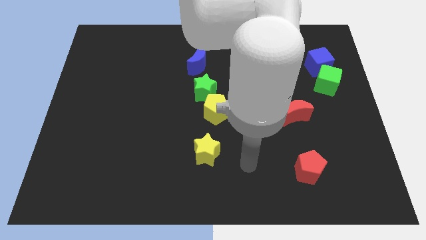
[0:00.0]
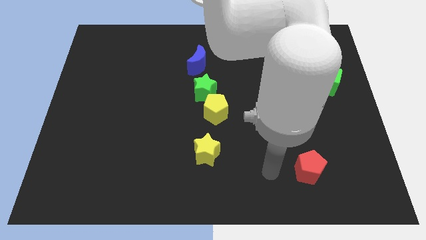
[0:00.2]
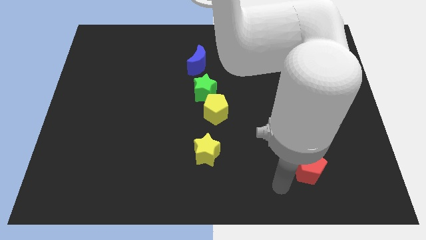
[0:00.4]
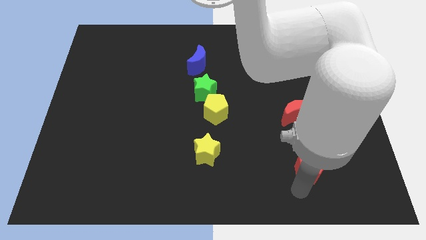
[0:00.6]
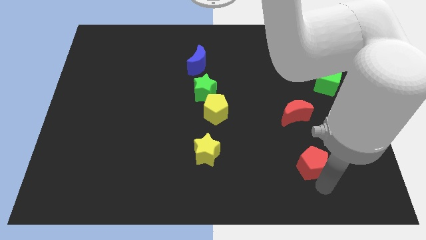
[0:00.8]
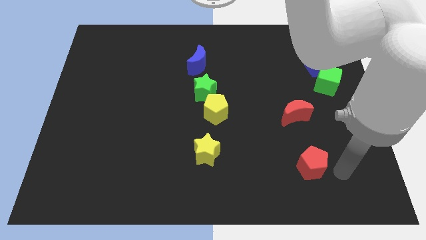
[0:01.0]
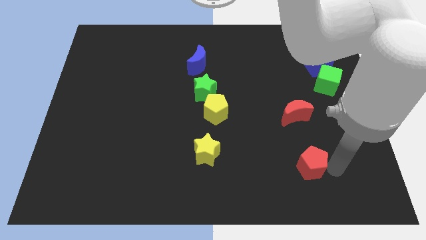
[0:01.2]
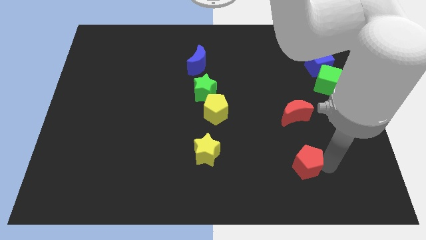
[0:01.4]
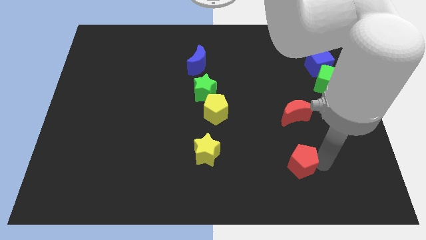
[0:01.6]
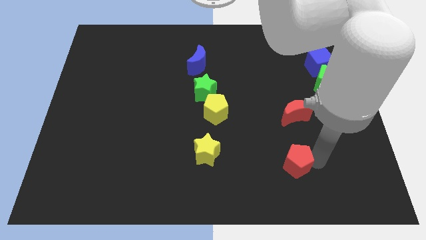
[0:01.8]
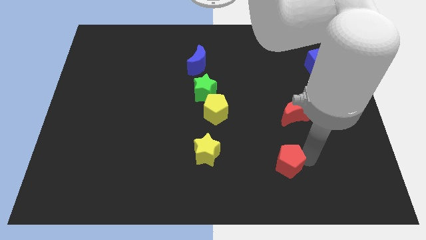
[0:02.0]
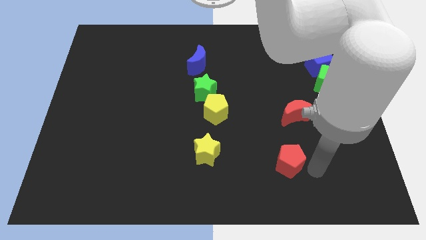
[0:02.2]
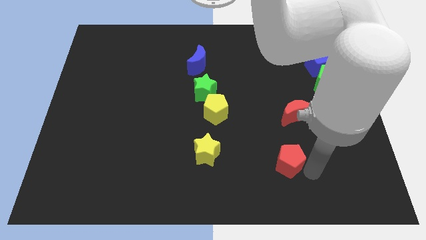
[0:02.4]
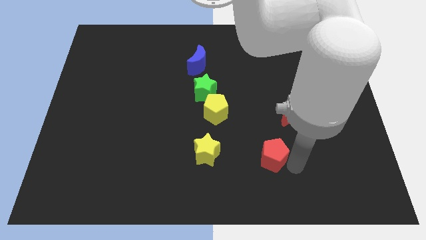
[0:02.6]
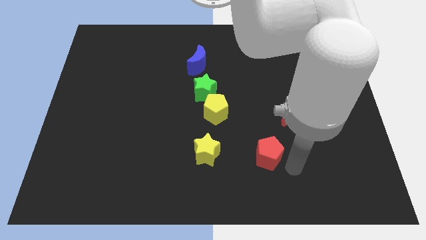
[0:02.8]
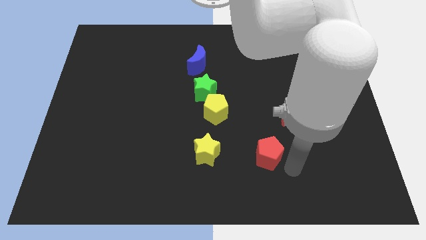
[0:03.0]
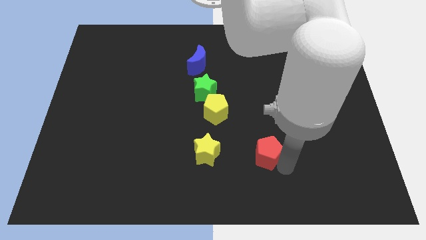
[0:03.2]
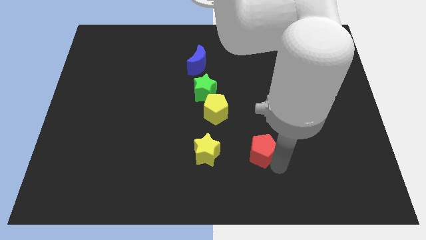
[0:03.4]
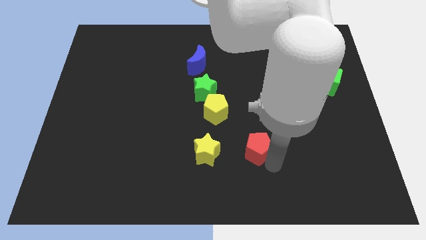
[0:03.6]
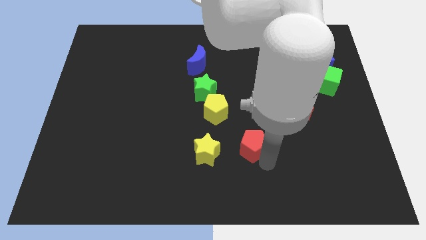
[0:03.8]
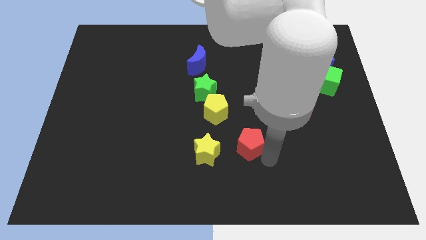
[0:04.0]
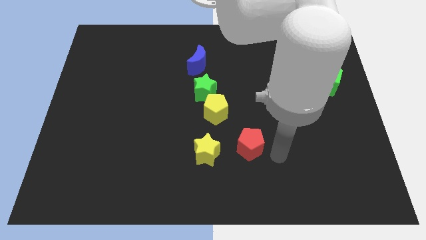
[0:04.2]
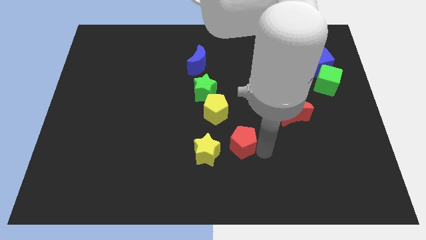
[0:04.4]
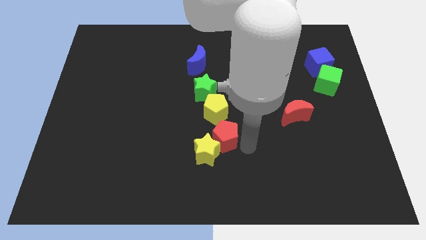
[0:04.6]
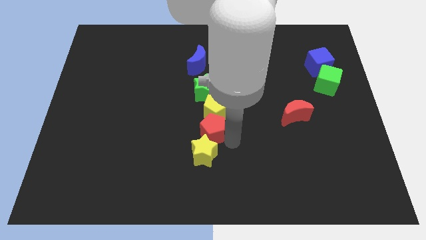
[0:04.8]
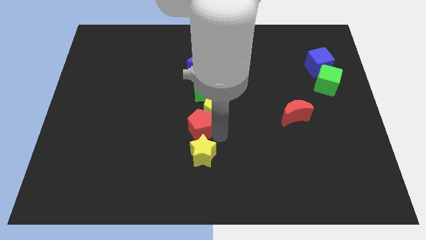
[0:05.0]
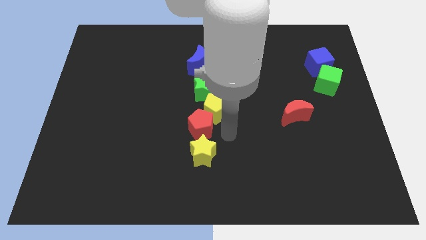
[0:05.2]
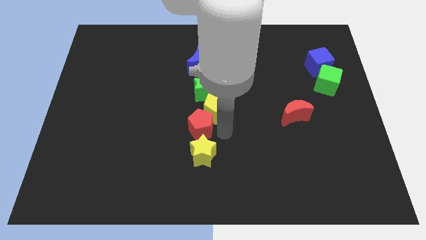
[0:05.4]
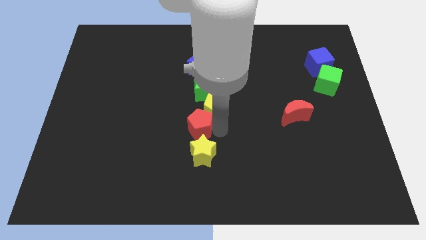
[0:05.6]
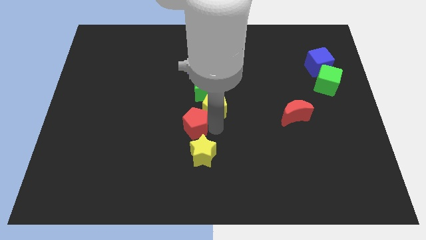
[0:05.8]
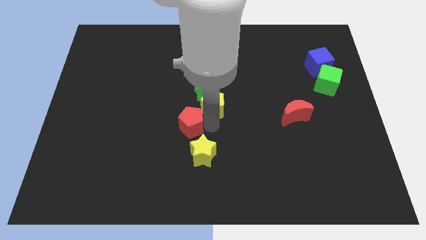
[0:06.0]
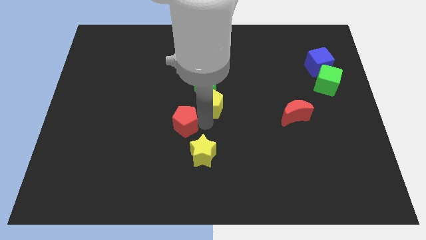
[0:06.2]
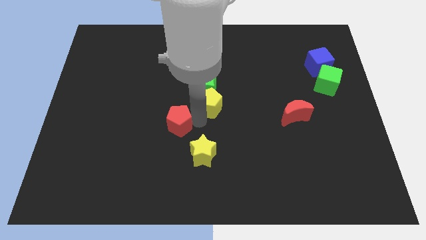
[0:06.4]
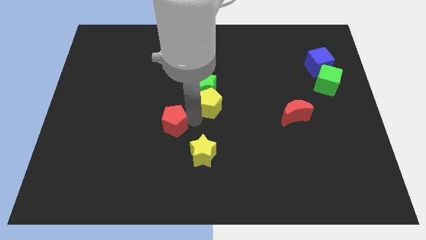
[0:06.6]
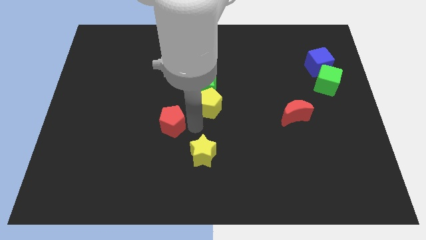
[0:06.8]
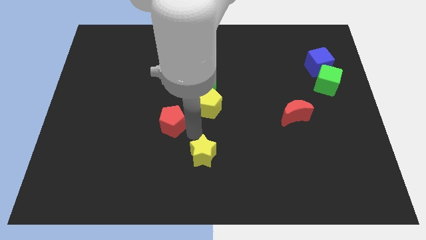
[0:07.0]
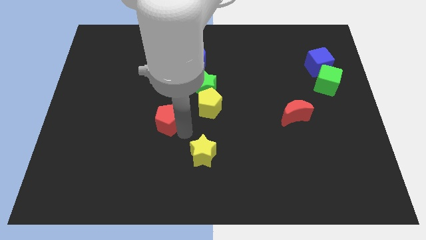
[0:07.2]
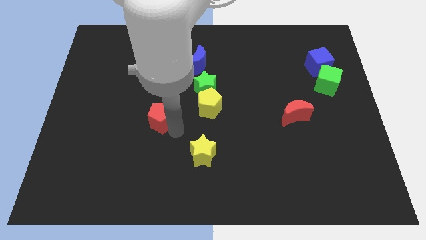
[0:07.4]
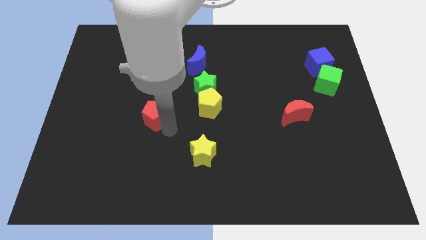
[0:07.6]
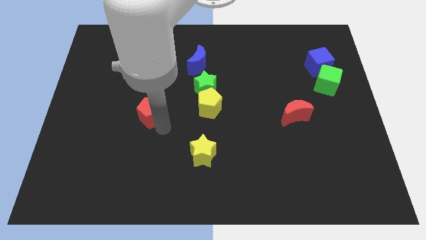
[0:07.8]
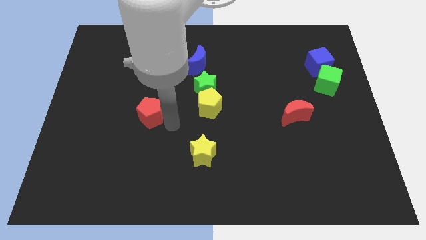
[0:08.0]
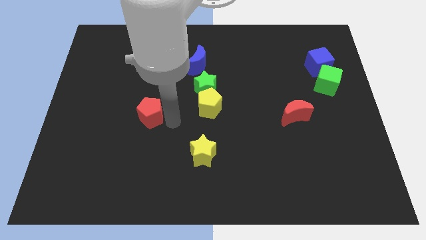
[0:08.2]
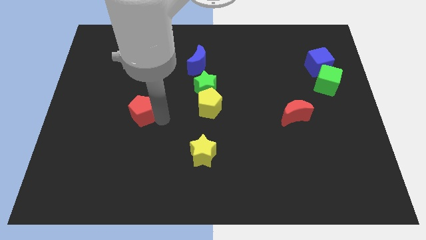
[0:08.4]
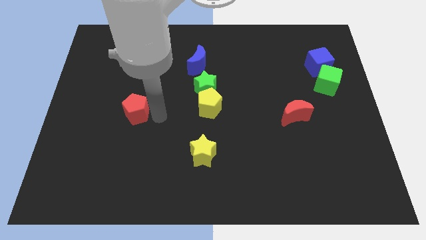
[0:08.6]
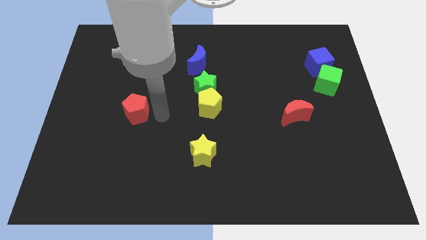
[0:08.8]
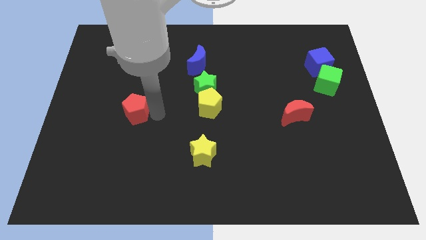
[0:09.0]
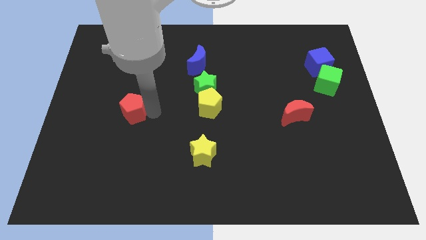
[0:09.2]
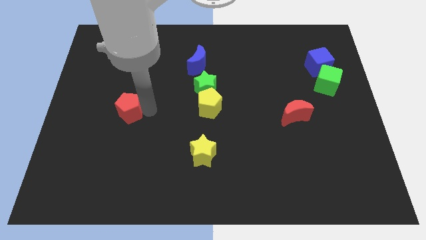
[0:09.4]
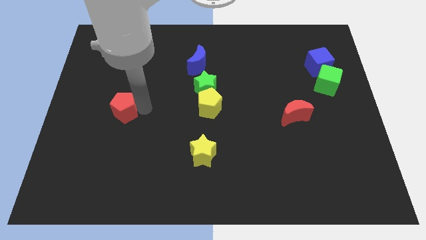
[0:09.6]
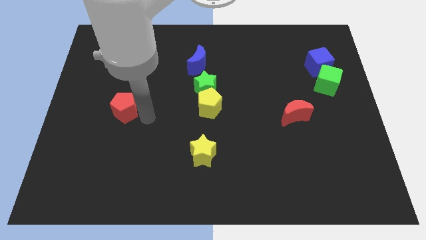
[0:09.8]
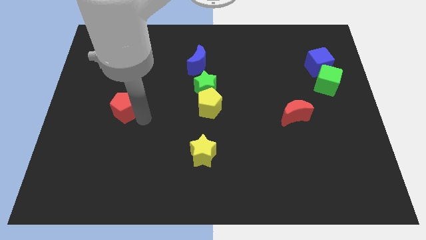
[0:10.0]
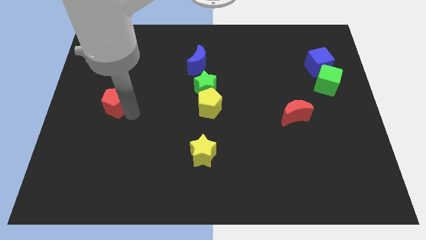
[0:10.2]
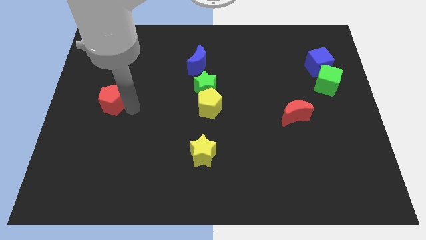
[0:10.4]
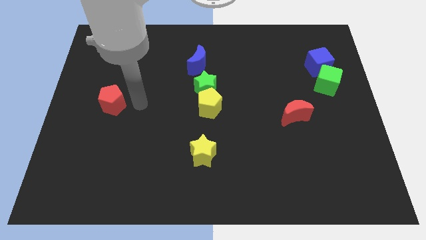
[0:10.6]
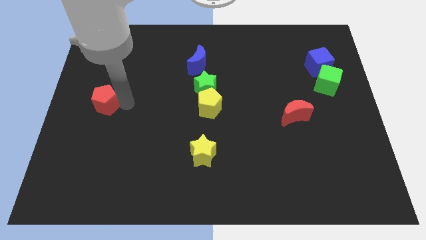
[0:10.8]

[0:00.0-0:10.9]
push the red pentagon to the left side of the board
